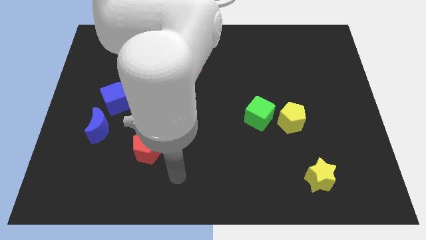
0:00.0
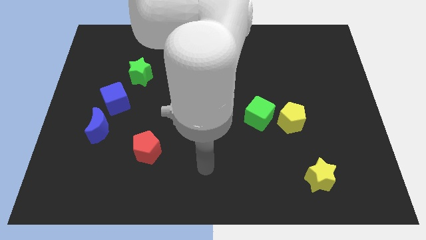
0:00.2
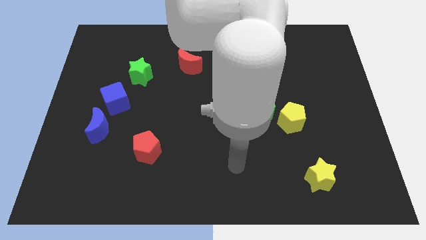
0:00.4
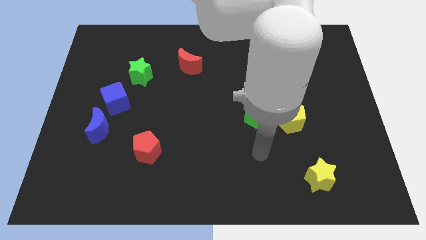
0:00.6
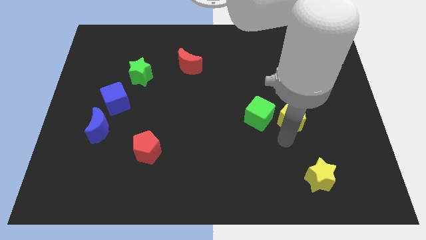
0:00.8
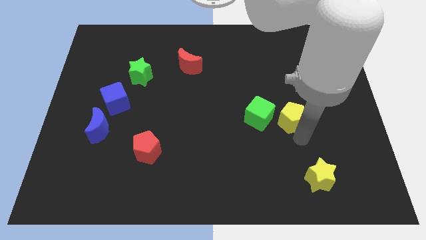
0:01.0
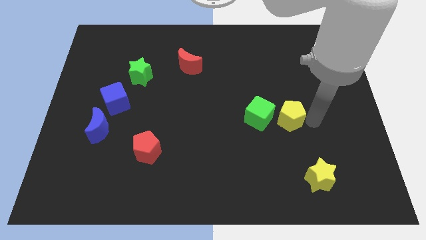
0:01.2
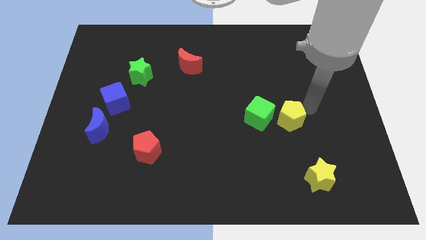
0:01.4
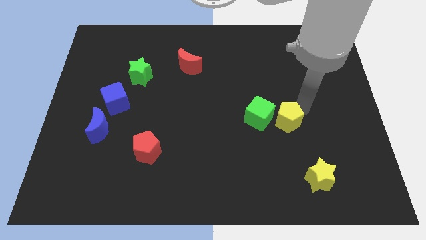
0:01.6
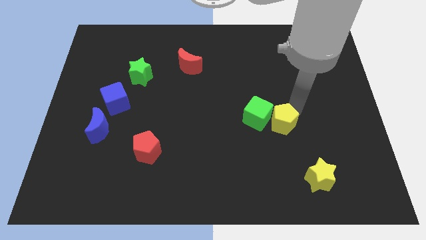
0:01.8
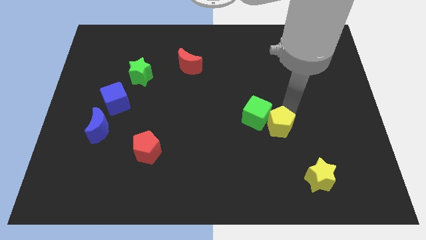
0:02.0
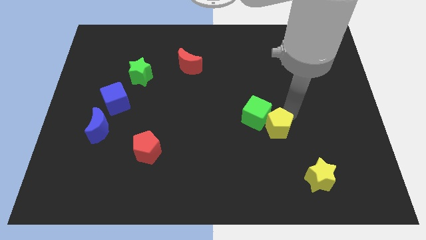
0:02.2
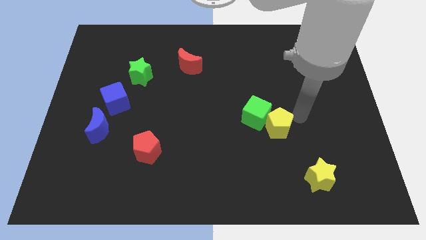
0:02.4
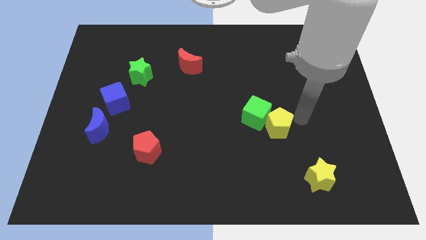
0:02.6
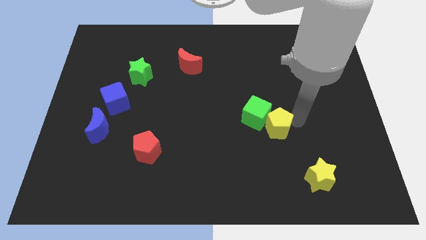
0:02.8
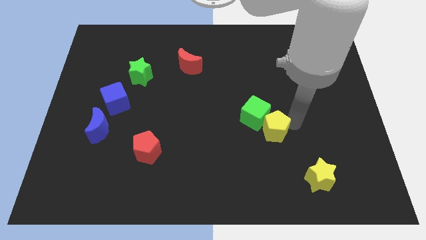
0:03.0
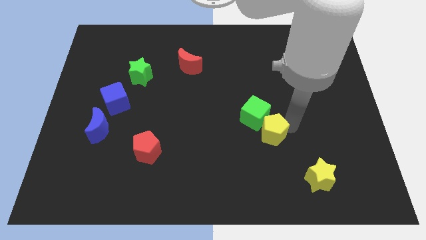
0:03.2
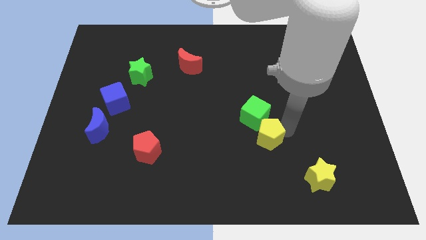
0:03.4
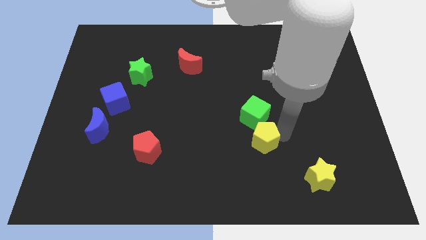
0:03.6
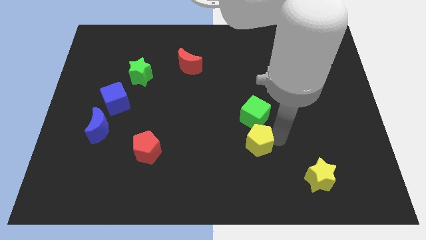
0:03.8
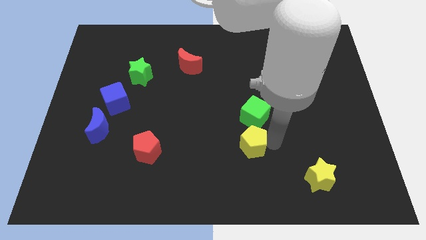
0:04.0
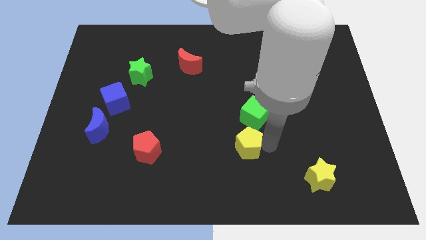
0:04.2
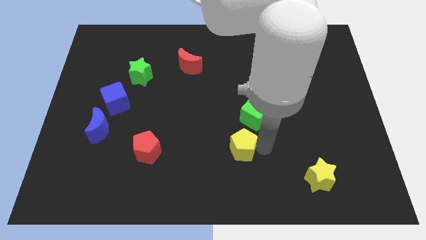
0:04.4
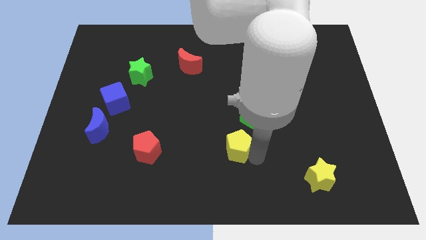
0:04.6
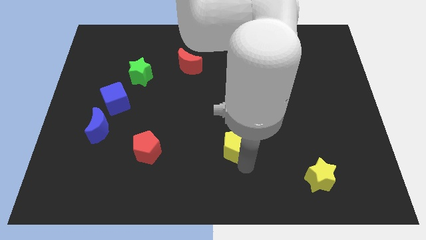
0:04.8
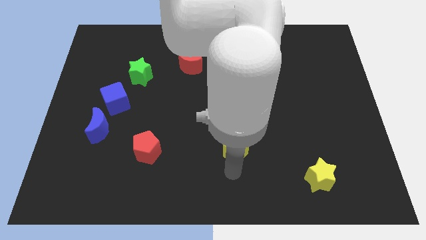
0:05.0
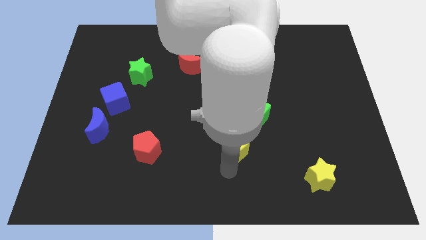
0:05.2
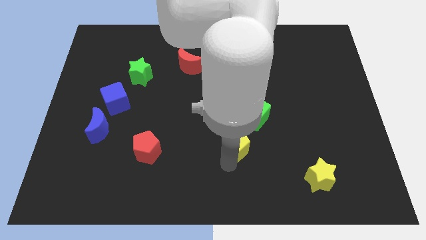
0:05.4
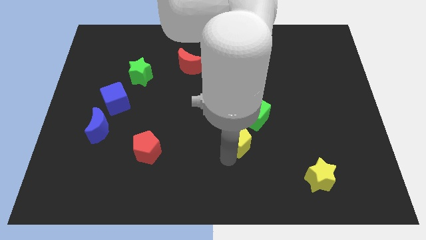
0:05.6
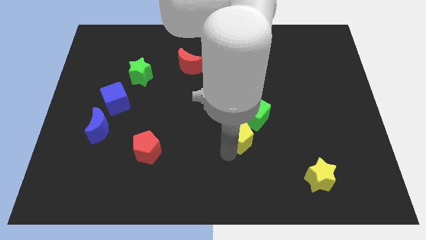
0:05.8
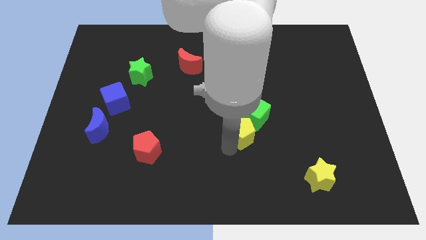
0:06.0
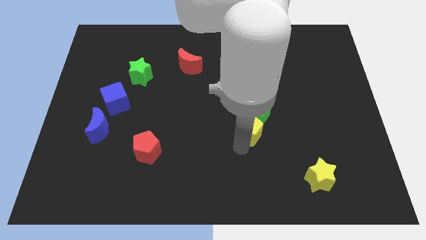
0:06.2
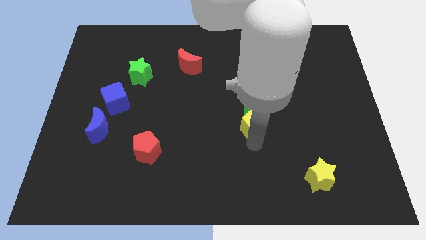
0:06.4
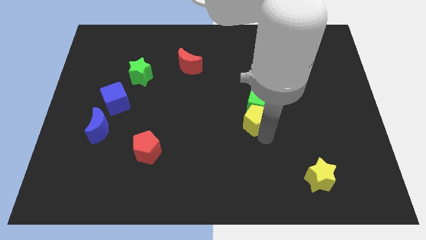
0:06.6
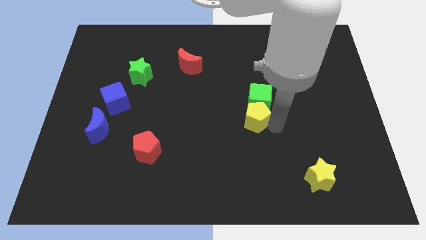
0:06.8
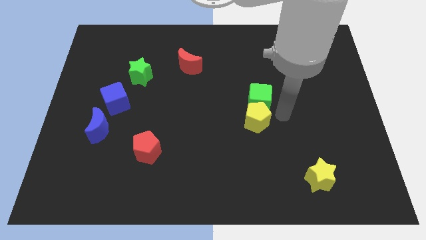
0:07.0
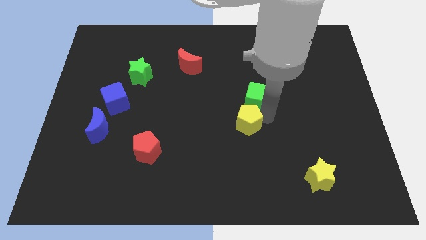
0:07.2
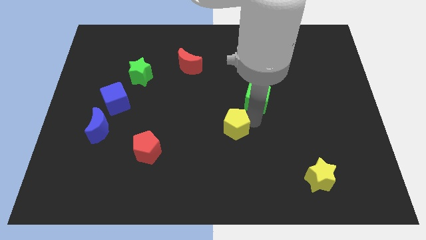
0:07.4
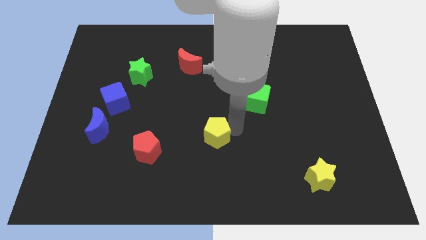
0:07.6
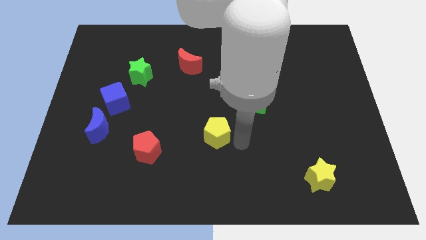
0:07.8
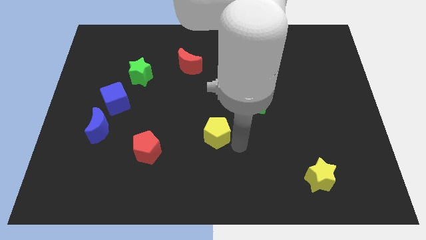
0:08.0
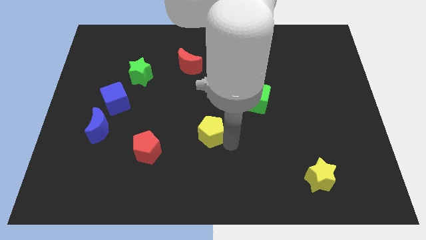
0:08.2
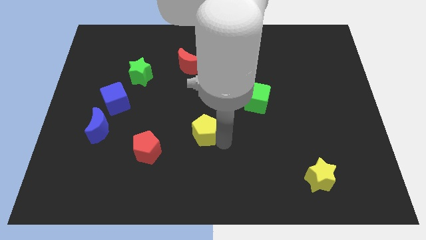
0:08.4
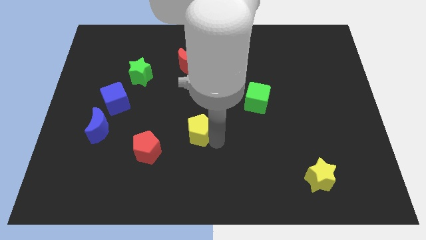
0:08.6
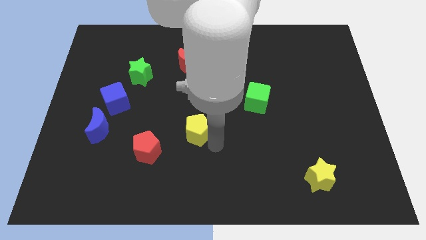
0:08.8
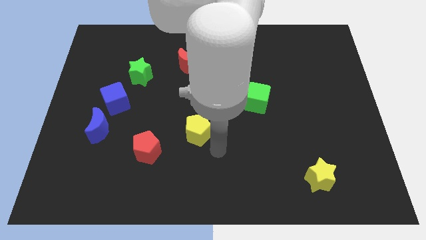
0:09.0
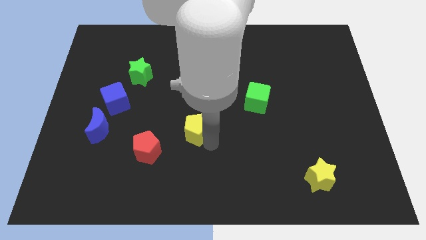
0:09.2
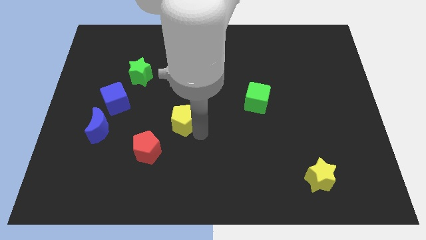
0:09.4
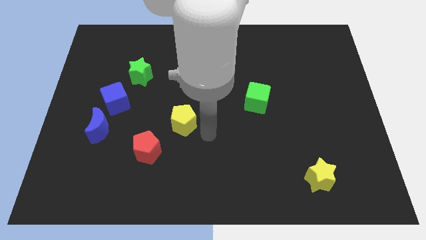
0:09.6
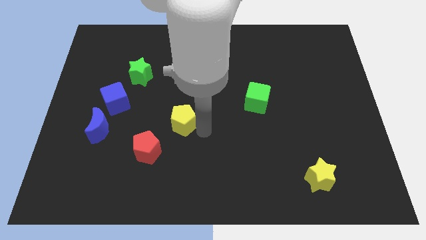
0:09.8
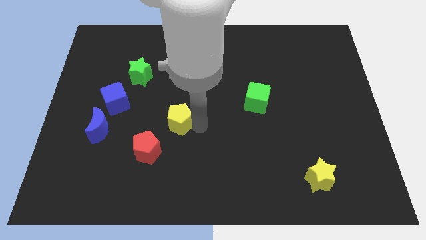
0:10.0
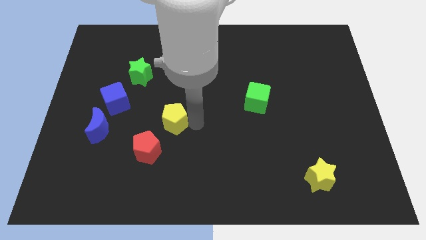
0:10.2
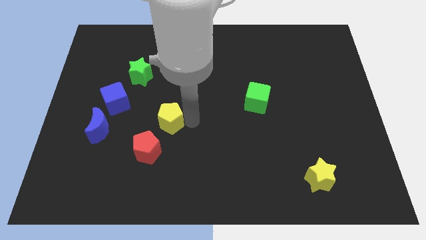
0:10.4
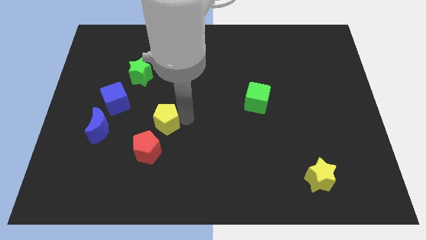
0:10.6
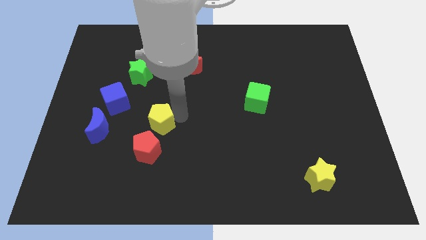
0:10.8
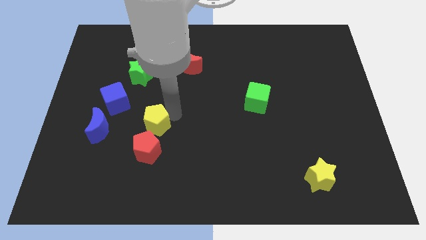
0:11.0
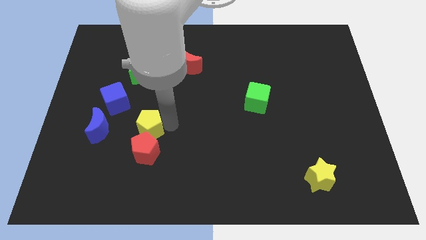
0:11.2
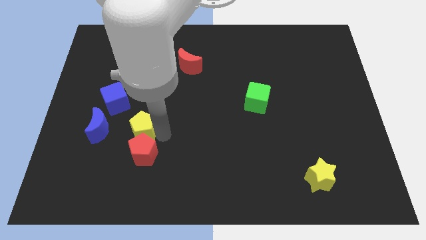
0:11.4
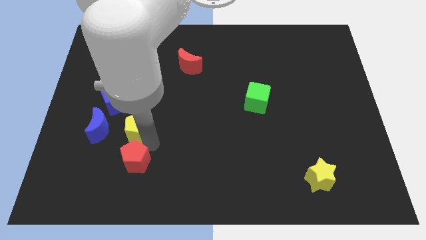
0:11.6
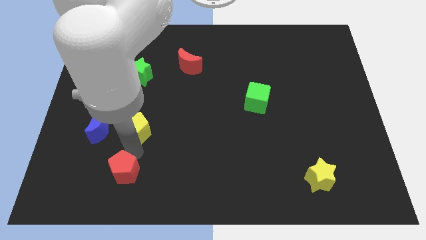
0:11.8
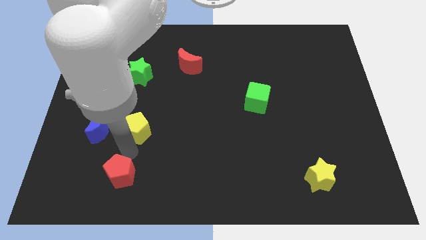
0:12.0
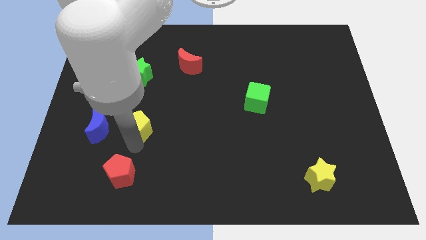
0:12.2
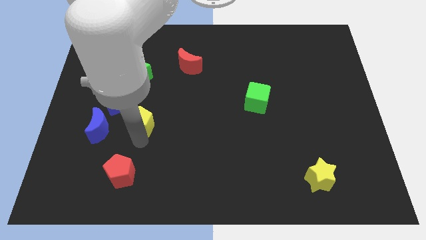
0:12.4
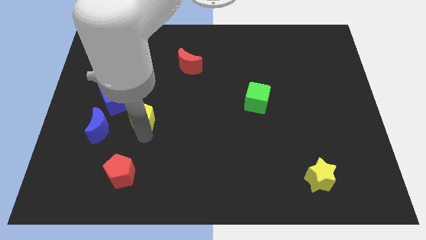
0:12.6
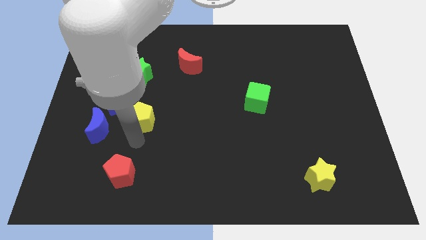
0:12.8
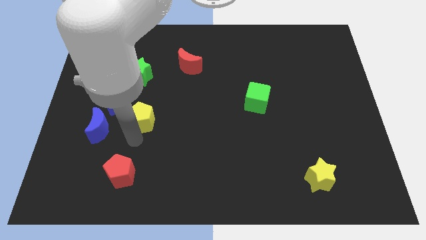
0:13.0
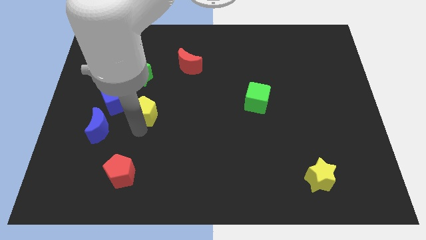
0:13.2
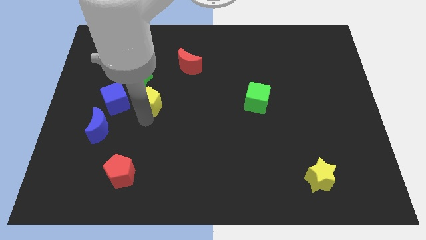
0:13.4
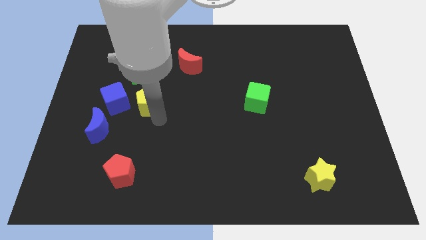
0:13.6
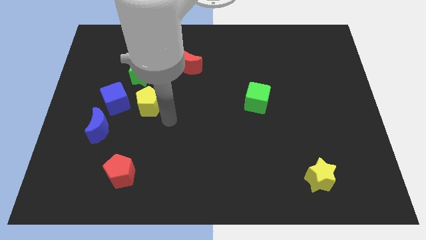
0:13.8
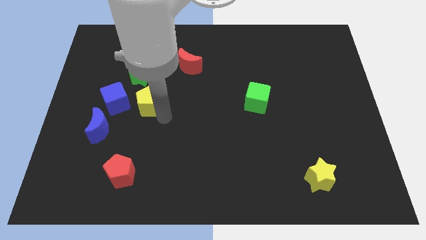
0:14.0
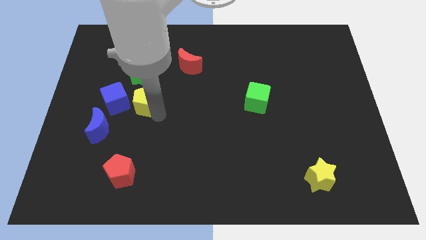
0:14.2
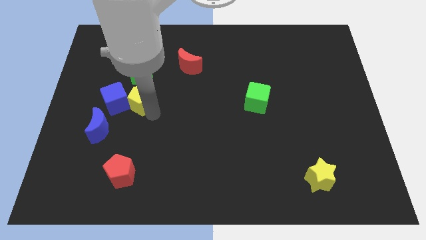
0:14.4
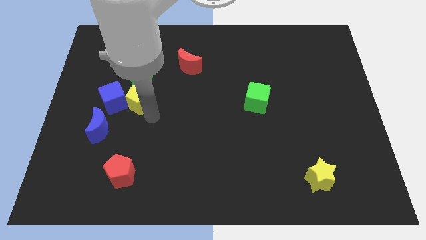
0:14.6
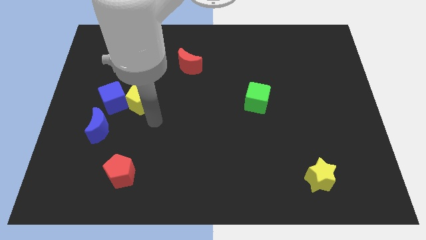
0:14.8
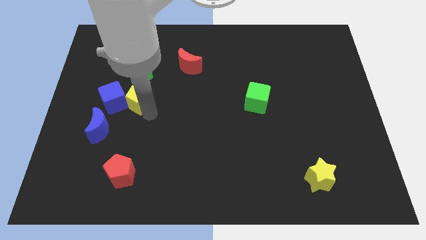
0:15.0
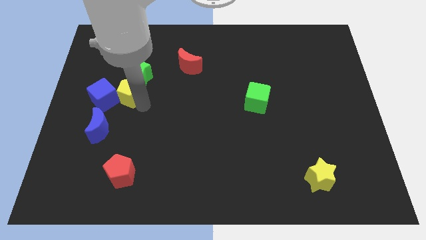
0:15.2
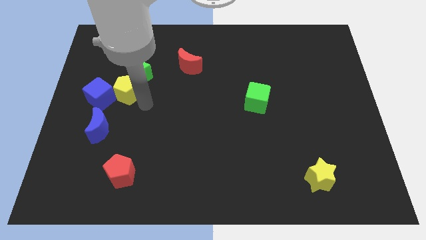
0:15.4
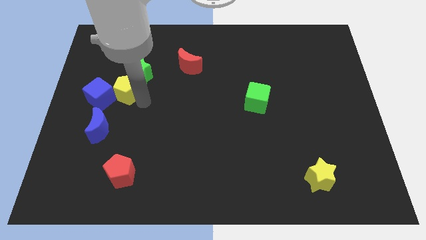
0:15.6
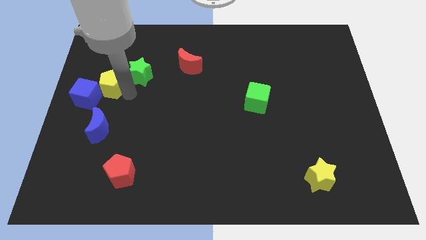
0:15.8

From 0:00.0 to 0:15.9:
move the yellow pentagon to the left of the green star
